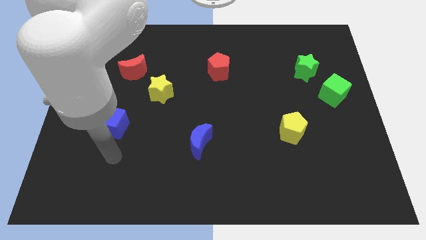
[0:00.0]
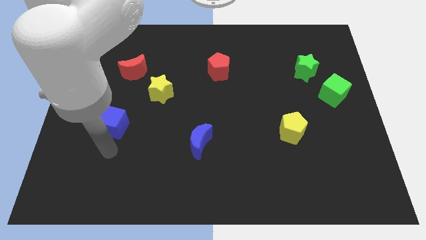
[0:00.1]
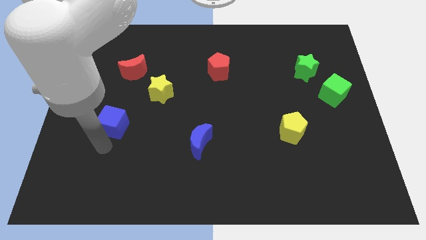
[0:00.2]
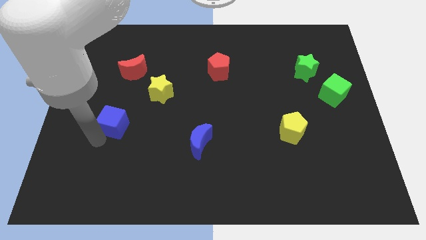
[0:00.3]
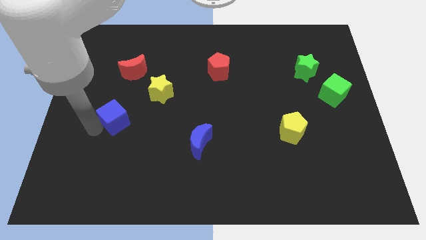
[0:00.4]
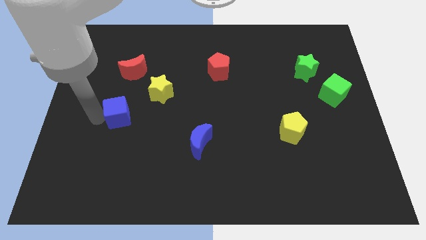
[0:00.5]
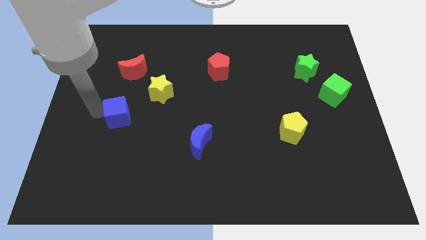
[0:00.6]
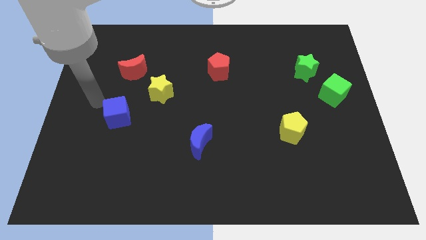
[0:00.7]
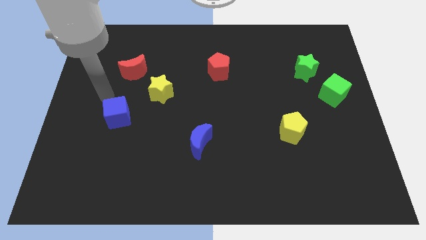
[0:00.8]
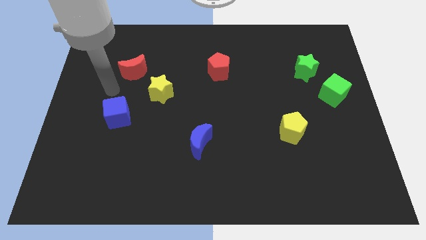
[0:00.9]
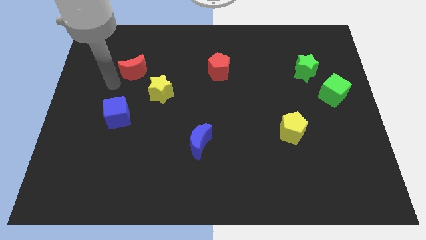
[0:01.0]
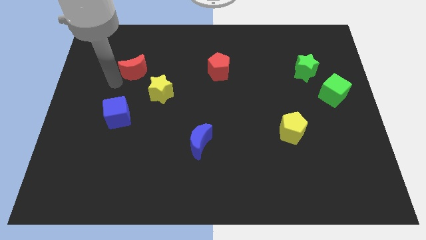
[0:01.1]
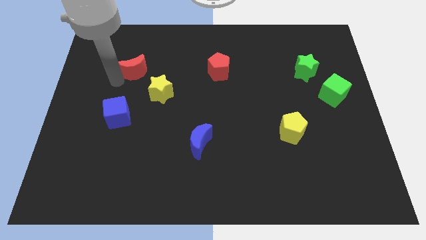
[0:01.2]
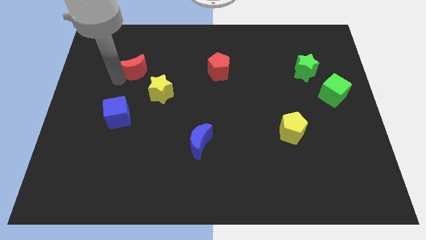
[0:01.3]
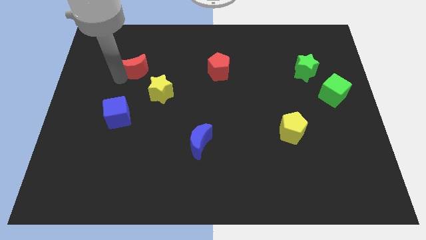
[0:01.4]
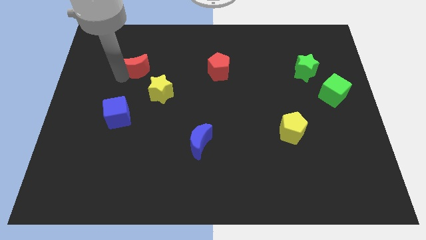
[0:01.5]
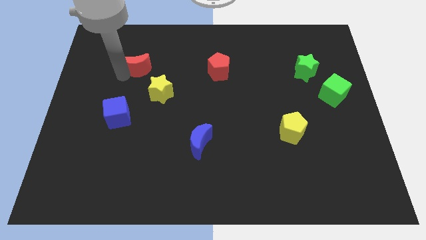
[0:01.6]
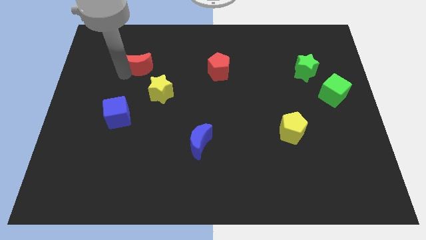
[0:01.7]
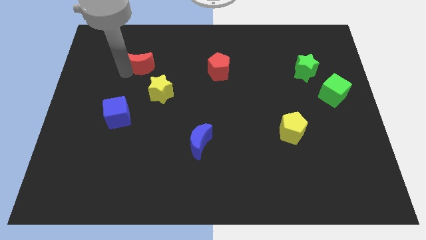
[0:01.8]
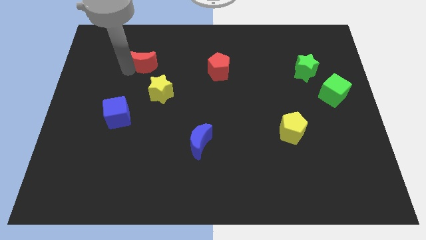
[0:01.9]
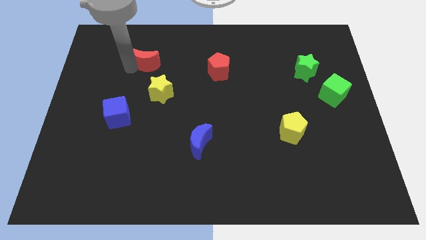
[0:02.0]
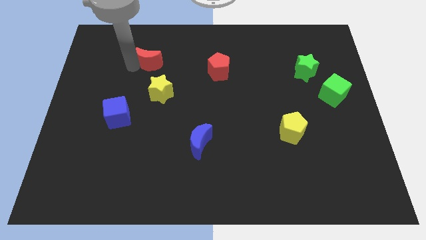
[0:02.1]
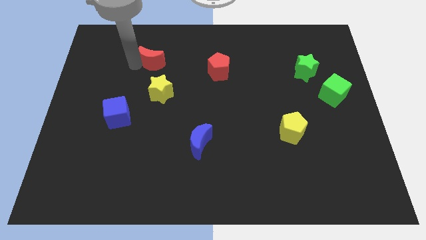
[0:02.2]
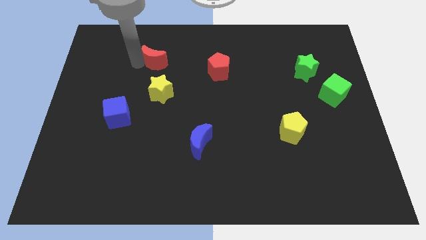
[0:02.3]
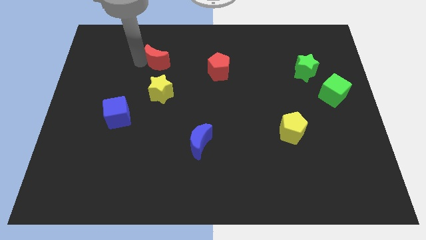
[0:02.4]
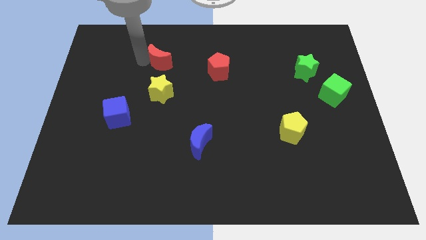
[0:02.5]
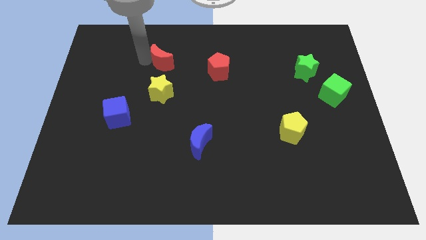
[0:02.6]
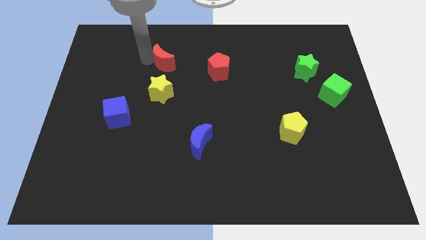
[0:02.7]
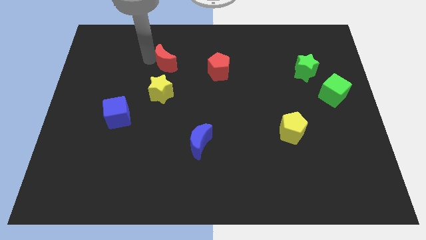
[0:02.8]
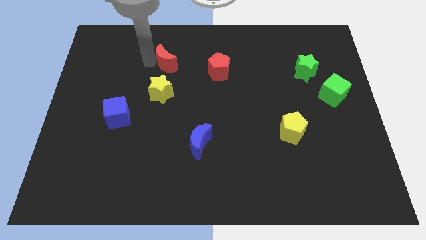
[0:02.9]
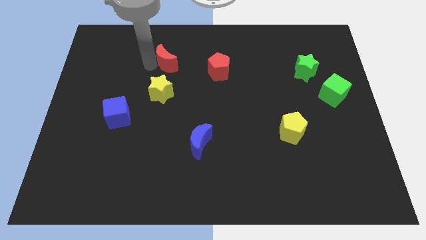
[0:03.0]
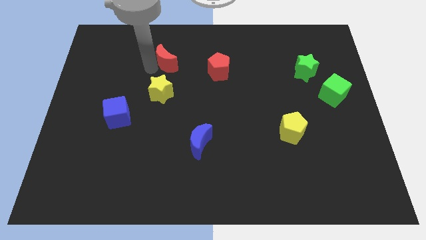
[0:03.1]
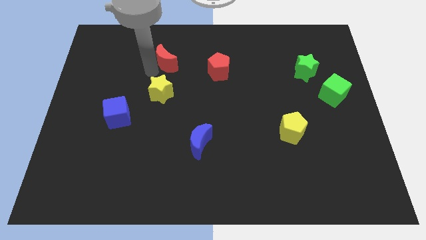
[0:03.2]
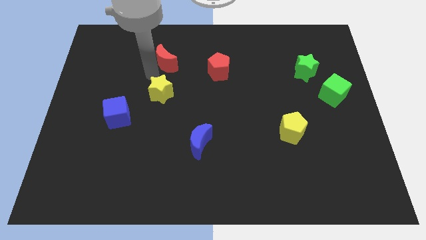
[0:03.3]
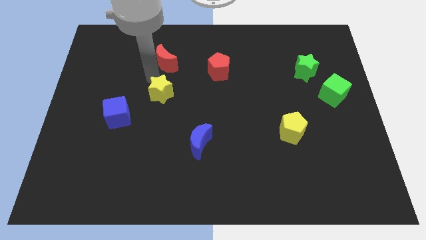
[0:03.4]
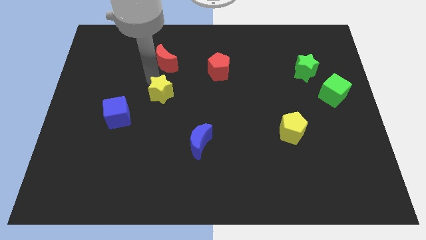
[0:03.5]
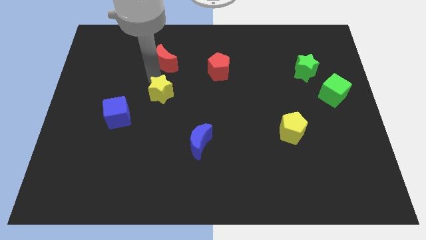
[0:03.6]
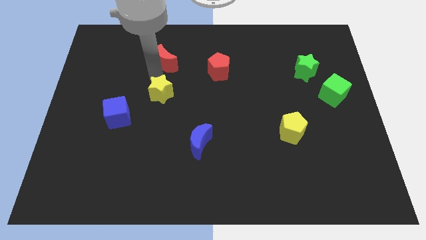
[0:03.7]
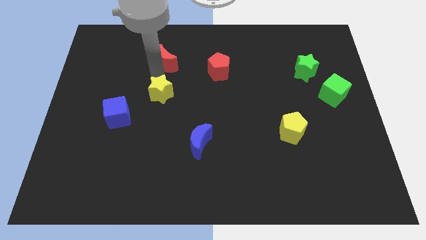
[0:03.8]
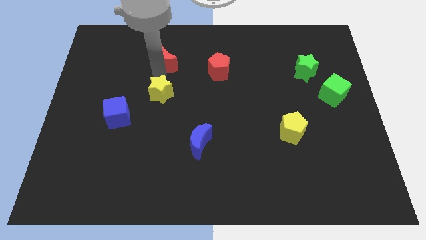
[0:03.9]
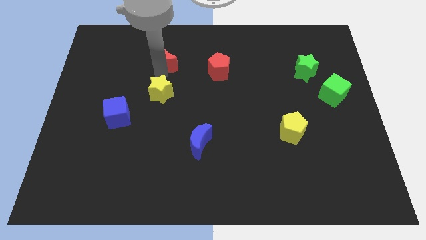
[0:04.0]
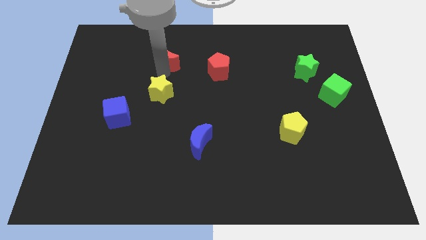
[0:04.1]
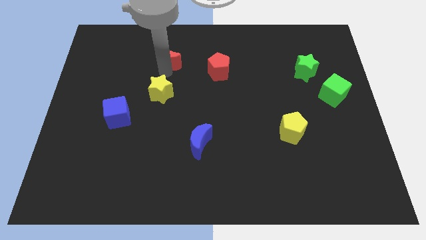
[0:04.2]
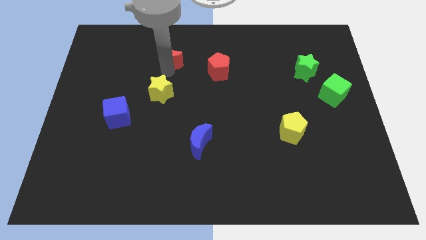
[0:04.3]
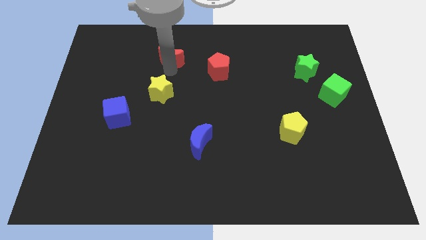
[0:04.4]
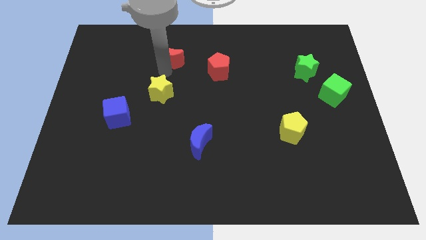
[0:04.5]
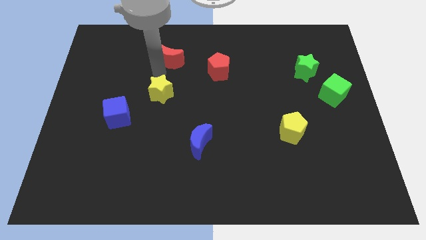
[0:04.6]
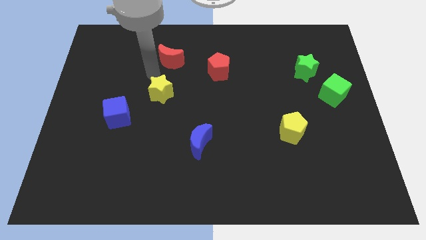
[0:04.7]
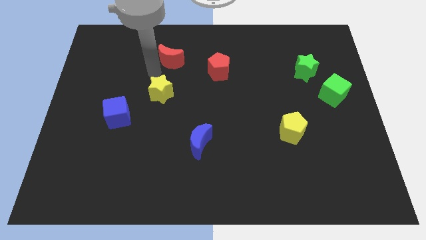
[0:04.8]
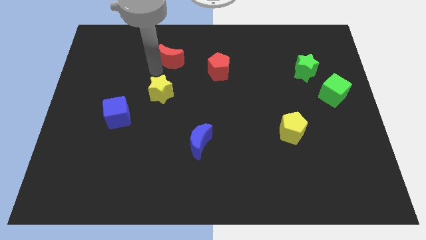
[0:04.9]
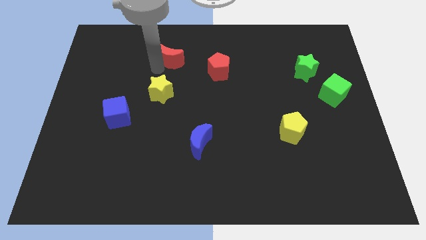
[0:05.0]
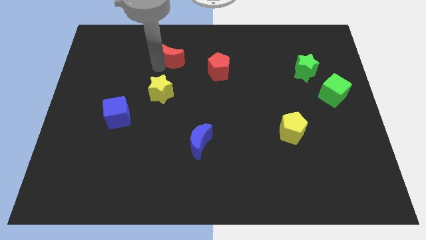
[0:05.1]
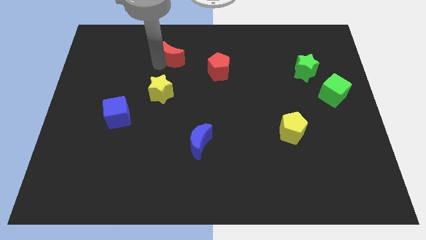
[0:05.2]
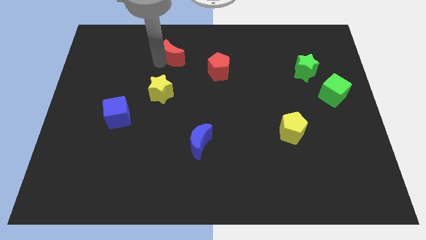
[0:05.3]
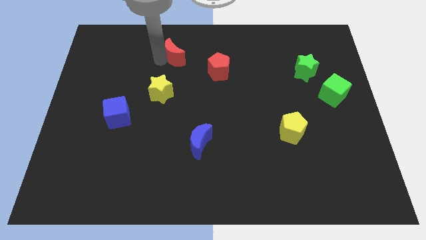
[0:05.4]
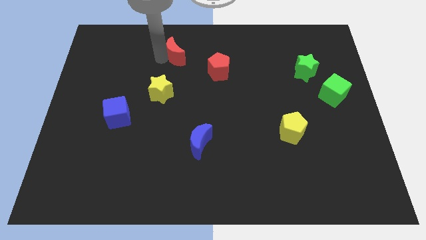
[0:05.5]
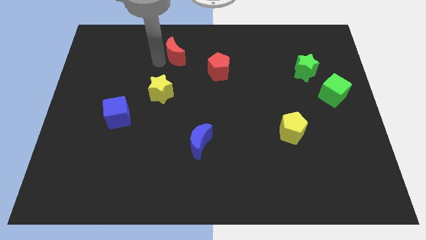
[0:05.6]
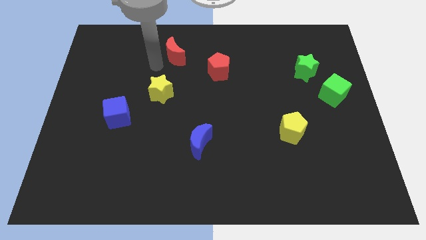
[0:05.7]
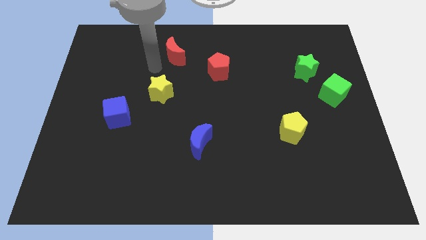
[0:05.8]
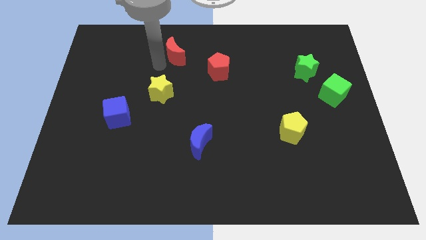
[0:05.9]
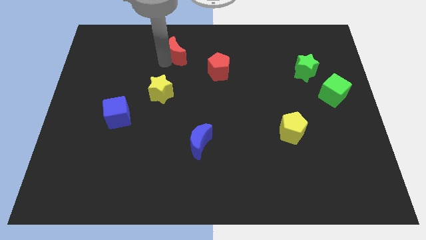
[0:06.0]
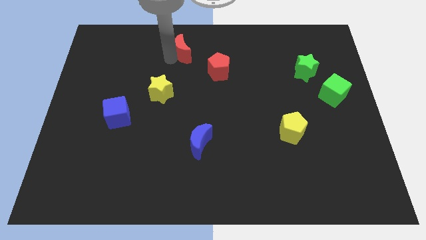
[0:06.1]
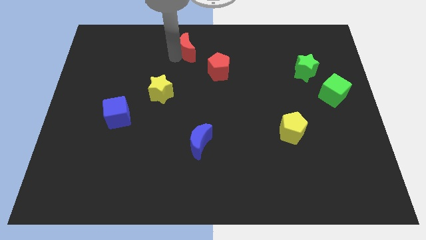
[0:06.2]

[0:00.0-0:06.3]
slide the red moon to the top
